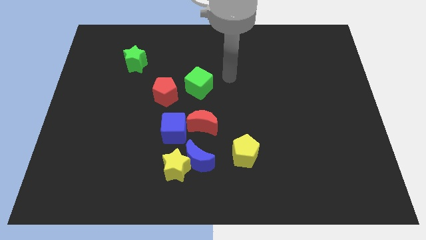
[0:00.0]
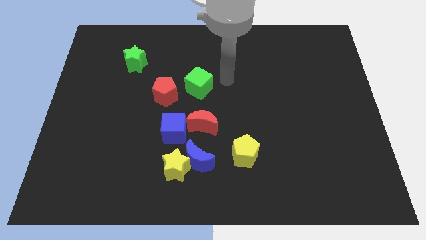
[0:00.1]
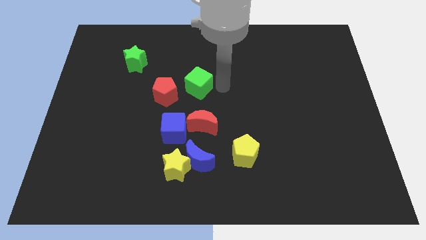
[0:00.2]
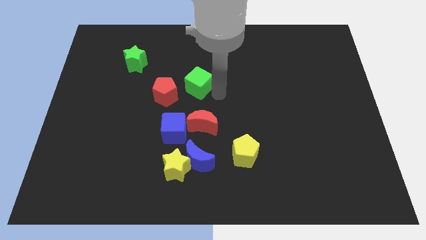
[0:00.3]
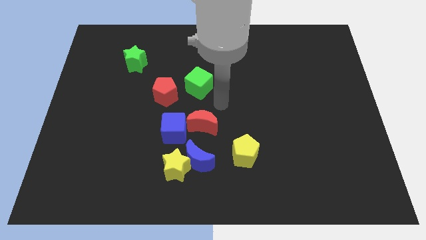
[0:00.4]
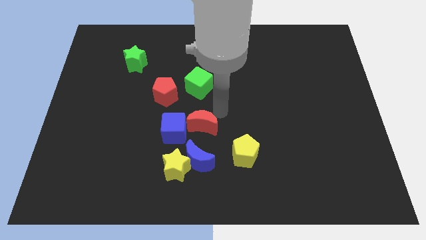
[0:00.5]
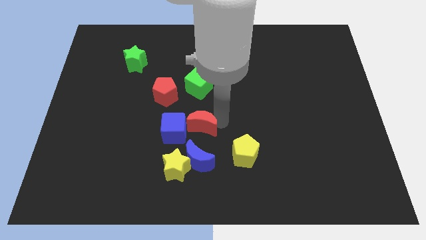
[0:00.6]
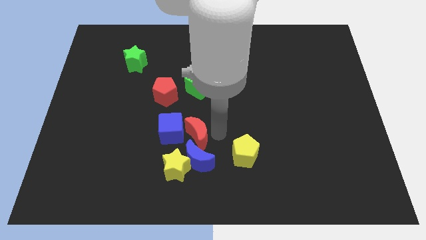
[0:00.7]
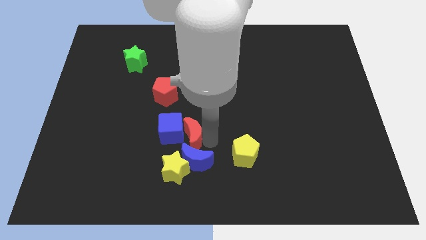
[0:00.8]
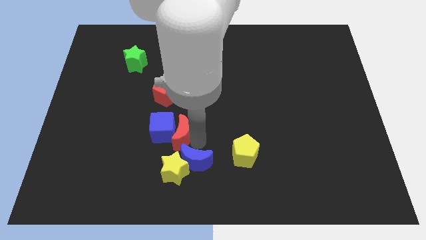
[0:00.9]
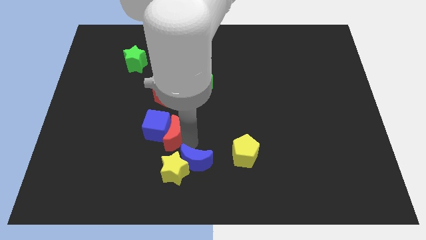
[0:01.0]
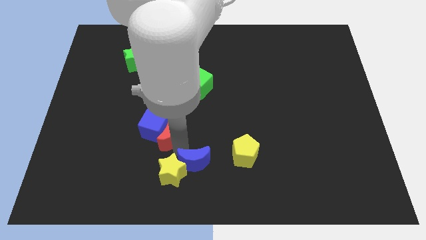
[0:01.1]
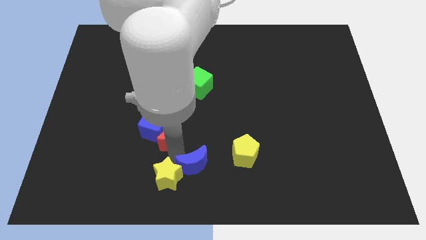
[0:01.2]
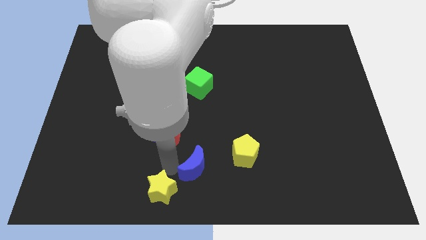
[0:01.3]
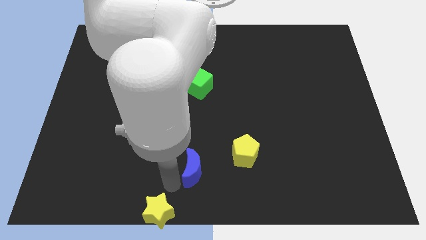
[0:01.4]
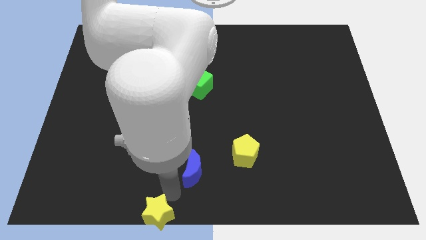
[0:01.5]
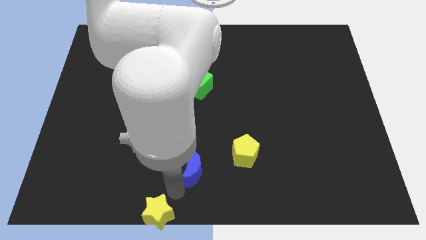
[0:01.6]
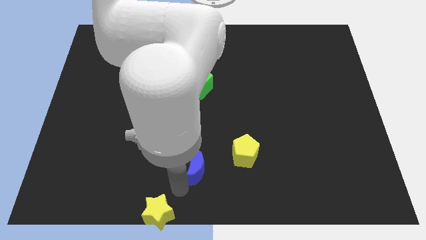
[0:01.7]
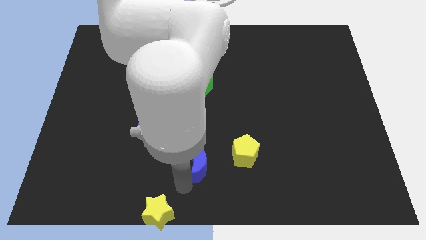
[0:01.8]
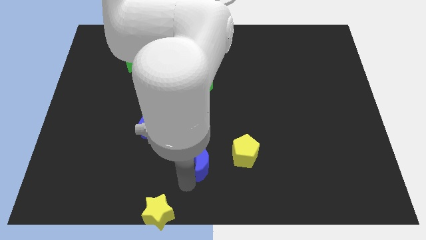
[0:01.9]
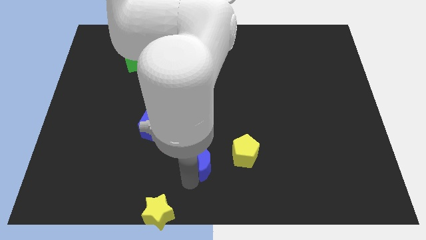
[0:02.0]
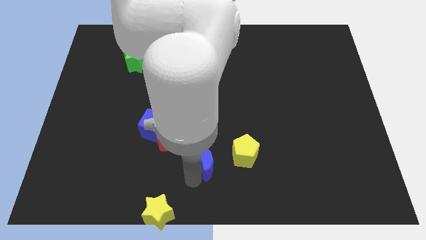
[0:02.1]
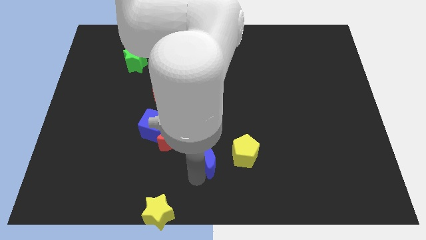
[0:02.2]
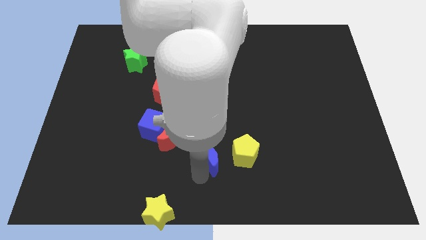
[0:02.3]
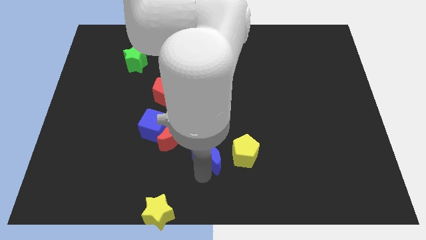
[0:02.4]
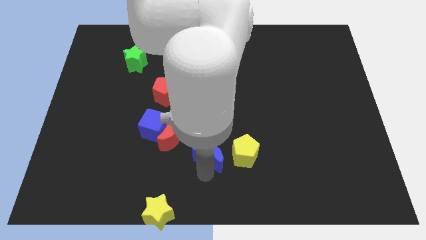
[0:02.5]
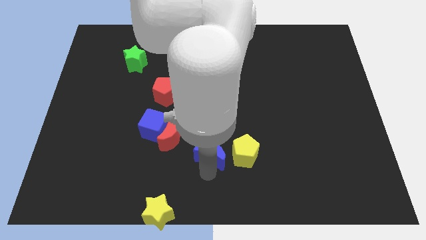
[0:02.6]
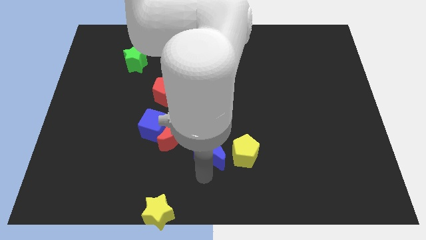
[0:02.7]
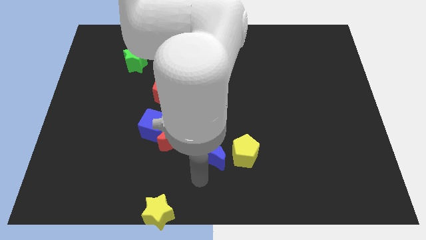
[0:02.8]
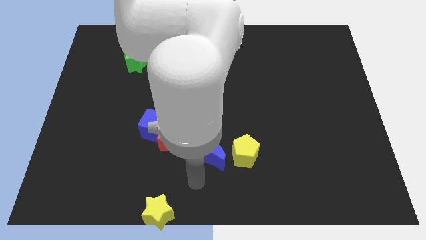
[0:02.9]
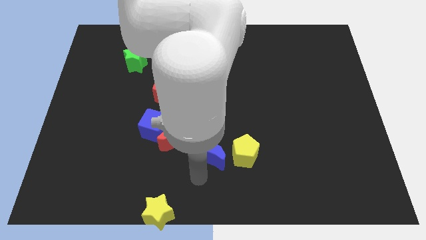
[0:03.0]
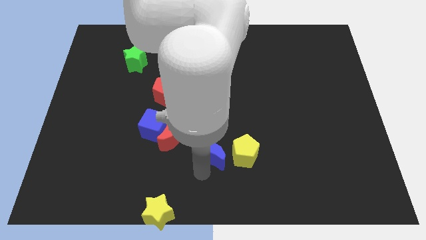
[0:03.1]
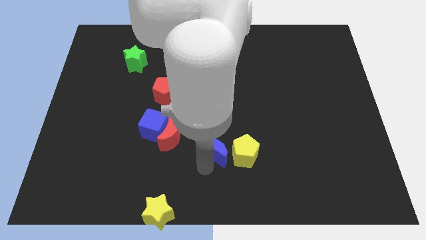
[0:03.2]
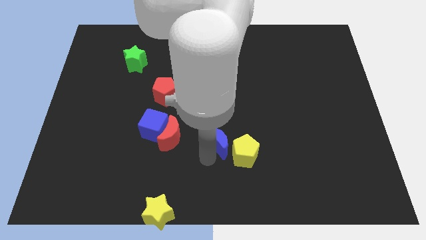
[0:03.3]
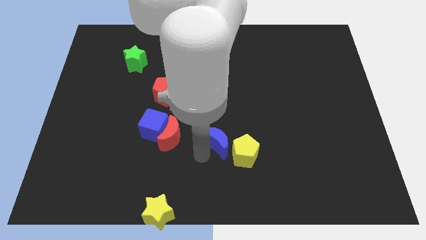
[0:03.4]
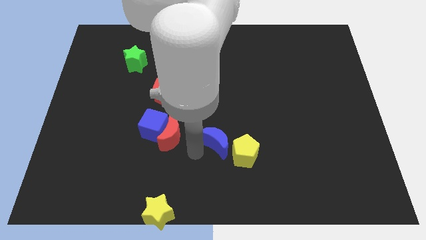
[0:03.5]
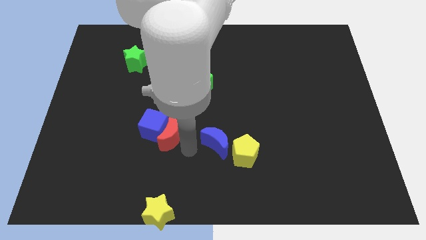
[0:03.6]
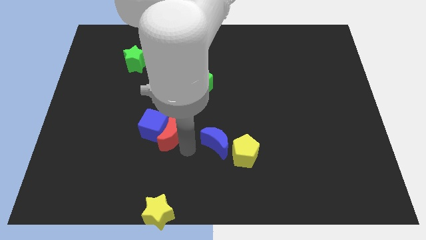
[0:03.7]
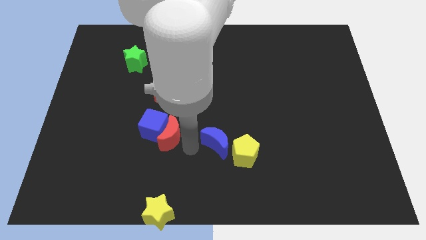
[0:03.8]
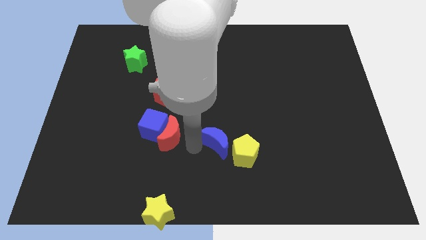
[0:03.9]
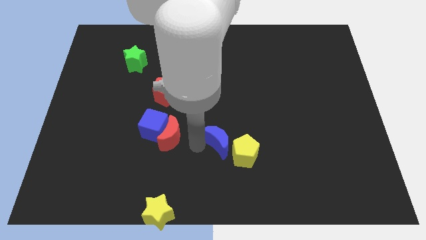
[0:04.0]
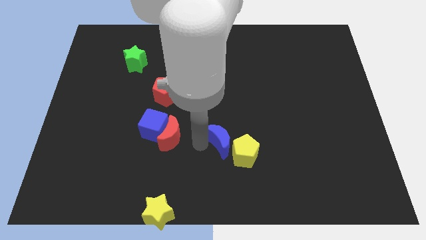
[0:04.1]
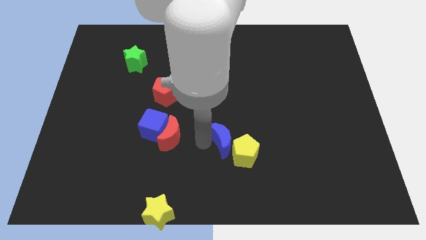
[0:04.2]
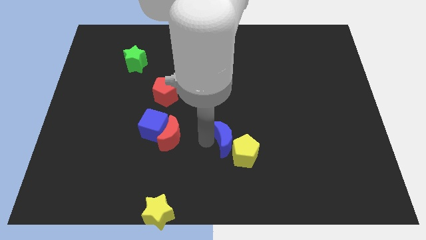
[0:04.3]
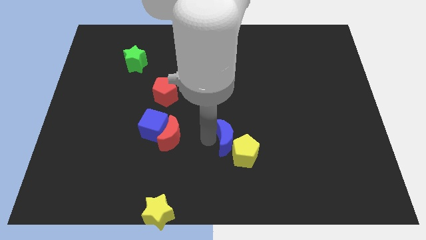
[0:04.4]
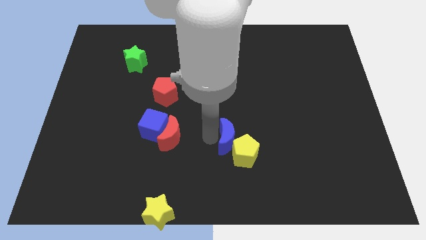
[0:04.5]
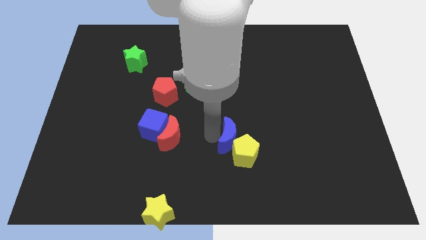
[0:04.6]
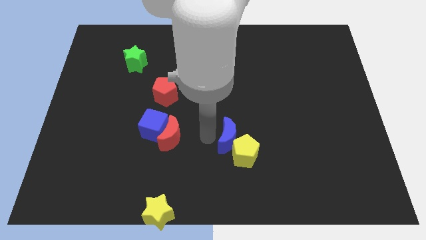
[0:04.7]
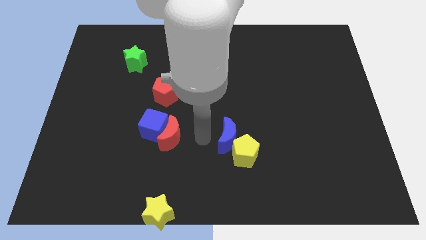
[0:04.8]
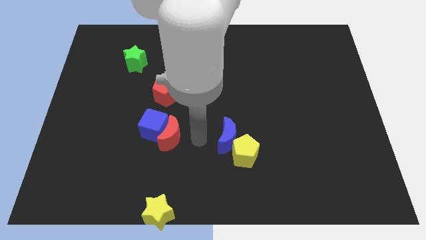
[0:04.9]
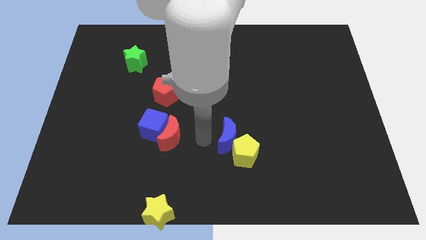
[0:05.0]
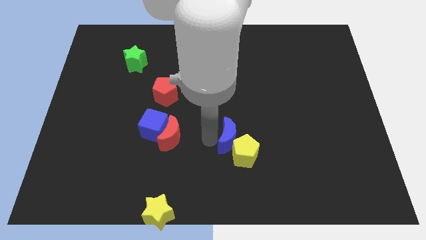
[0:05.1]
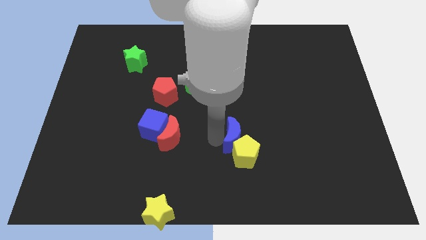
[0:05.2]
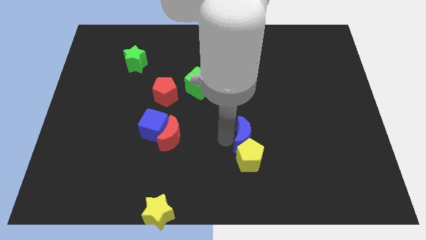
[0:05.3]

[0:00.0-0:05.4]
put the blue moon diagonally up and to the right of the yellow pentagon

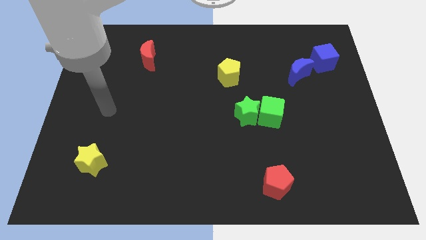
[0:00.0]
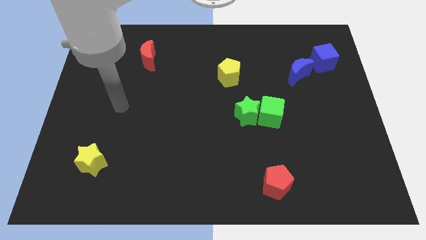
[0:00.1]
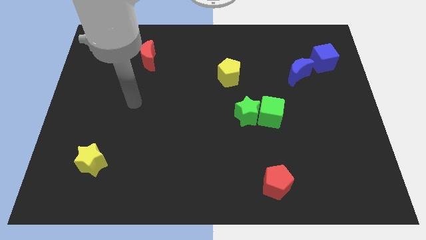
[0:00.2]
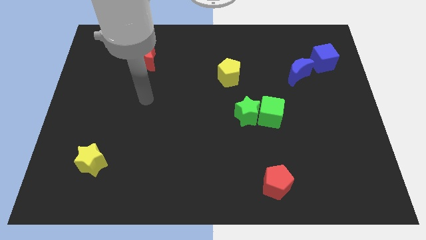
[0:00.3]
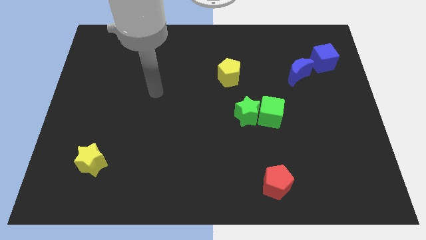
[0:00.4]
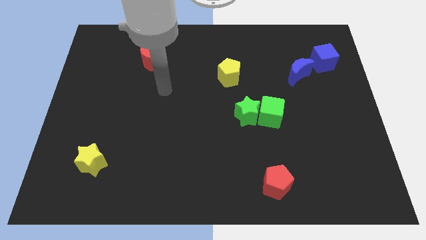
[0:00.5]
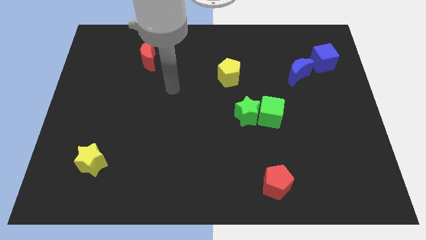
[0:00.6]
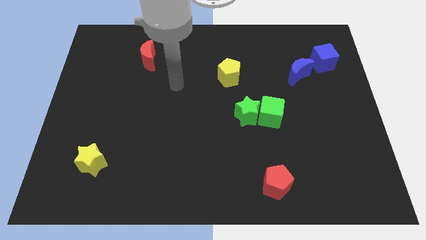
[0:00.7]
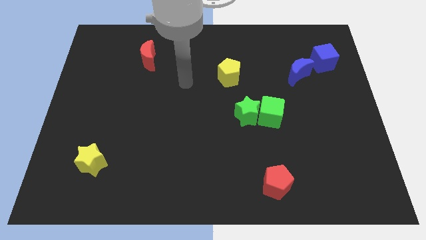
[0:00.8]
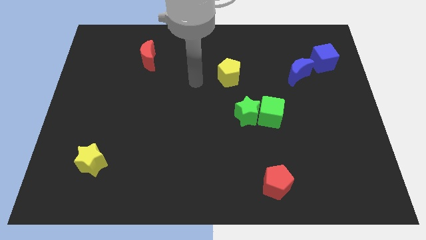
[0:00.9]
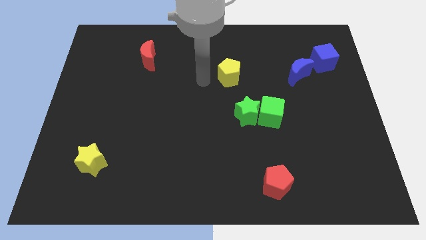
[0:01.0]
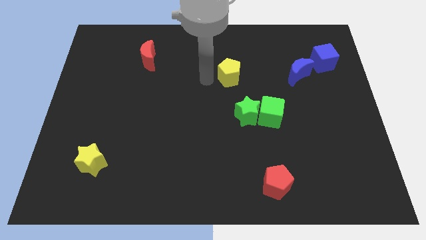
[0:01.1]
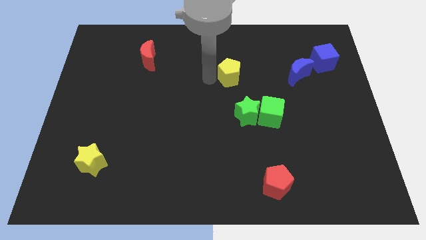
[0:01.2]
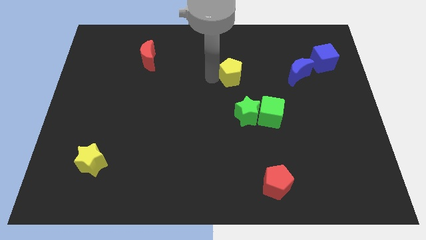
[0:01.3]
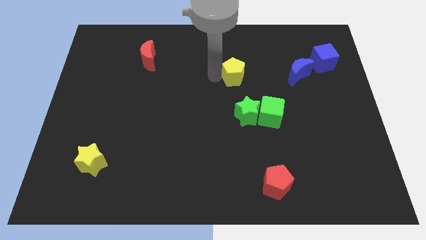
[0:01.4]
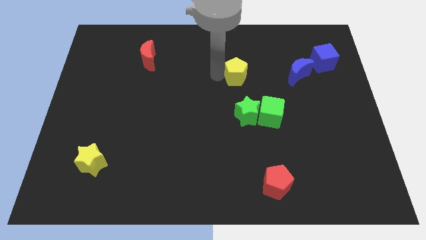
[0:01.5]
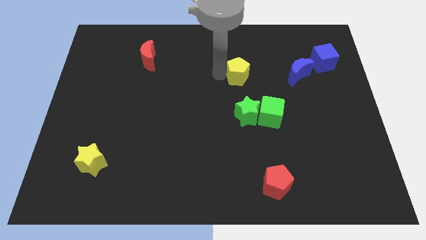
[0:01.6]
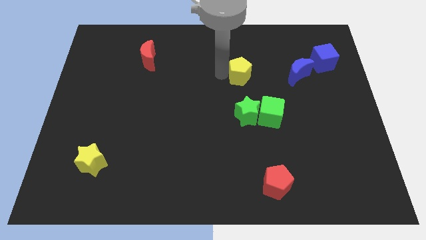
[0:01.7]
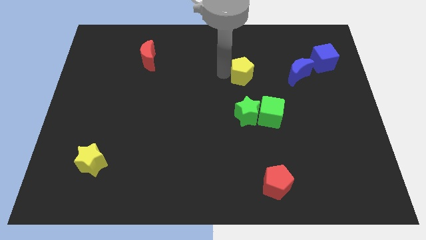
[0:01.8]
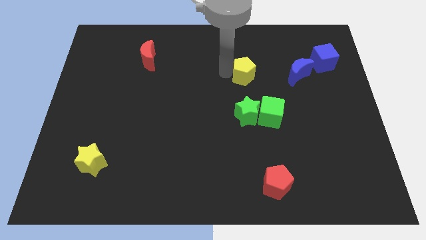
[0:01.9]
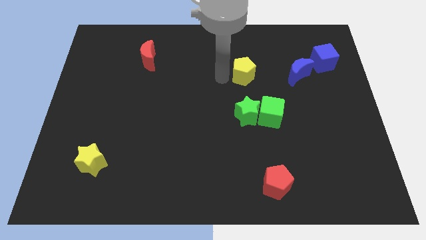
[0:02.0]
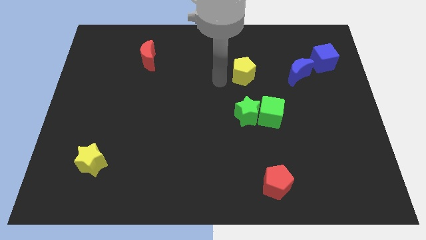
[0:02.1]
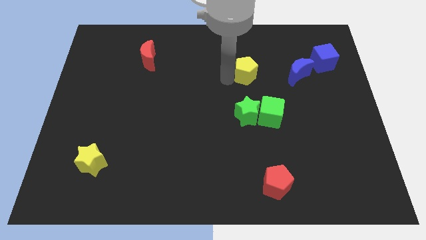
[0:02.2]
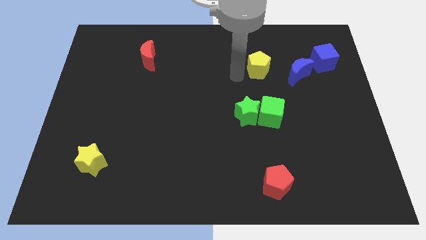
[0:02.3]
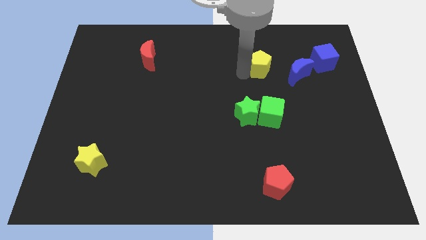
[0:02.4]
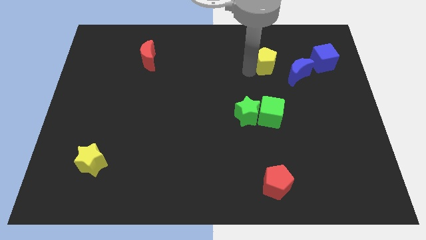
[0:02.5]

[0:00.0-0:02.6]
push the yellow pentagon left of the blue cube
